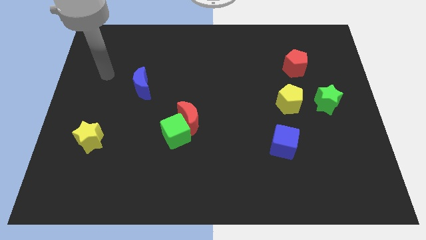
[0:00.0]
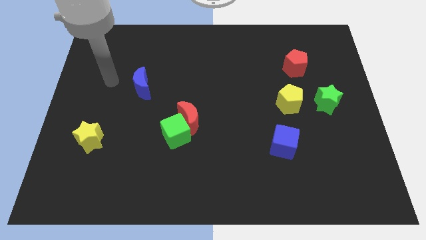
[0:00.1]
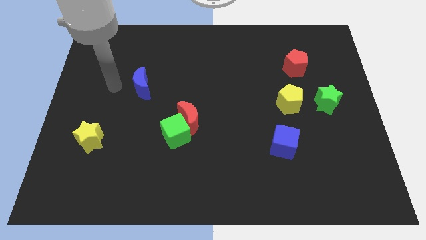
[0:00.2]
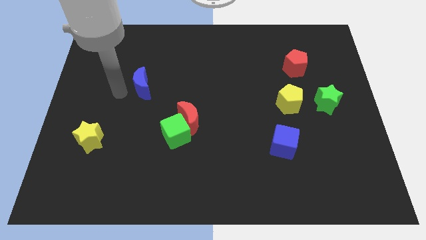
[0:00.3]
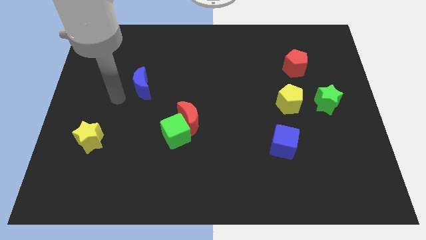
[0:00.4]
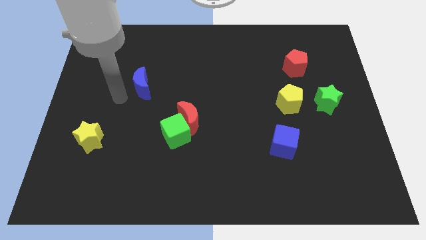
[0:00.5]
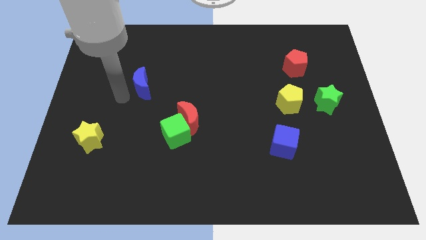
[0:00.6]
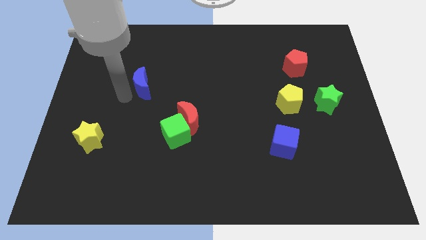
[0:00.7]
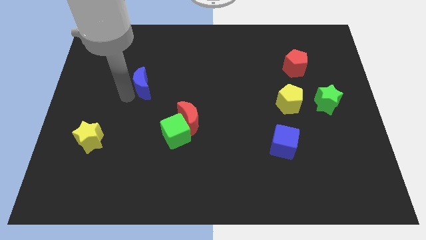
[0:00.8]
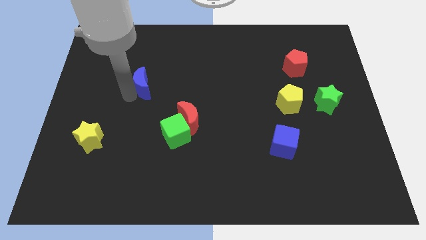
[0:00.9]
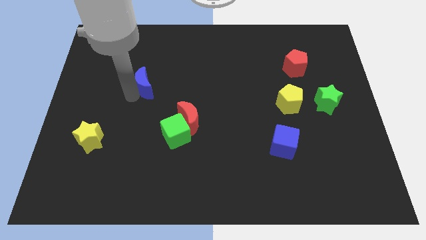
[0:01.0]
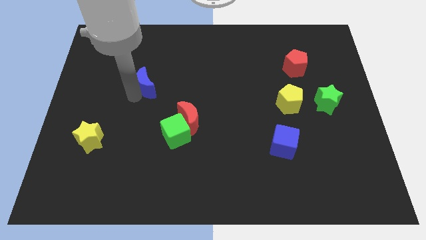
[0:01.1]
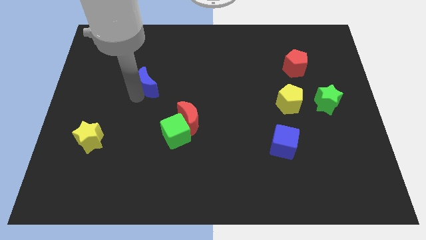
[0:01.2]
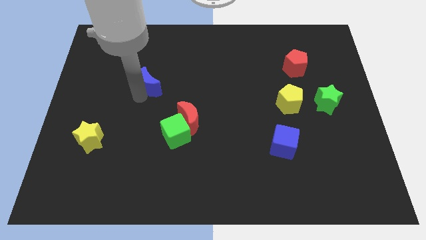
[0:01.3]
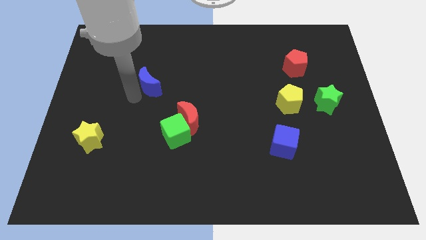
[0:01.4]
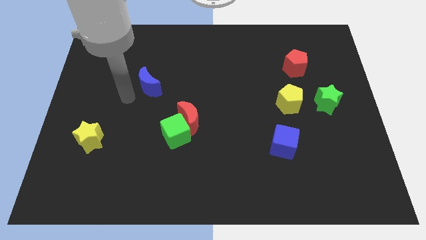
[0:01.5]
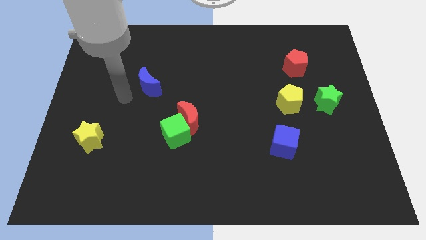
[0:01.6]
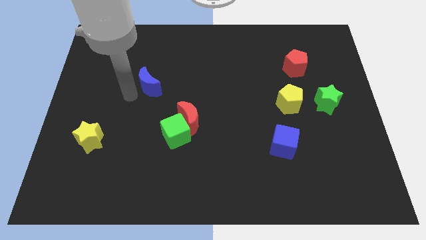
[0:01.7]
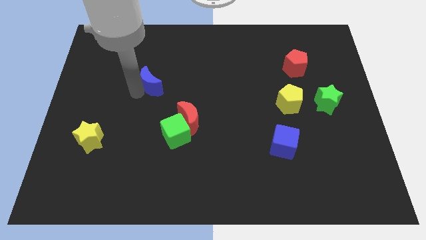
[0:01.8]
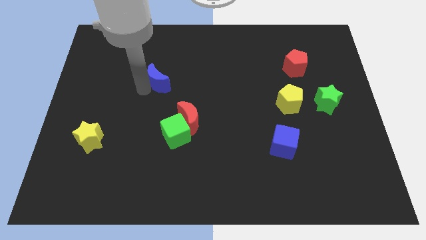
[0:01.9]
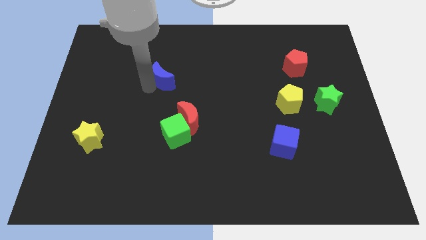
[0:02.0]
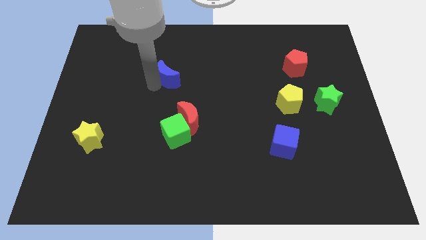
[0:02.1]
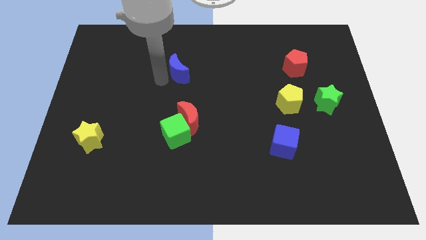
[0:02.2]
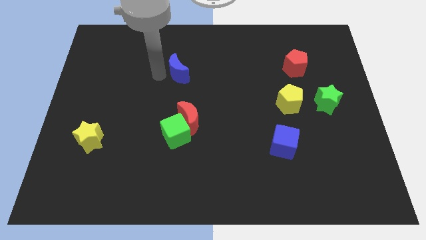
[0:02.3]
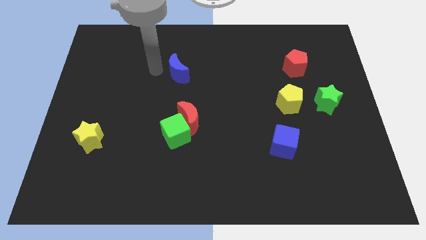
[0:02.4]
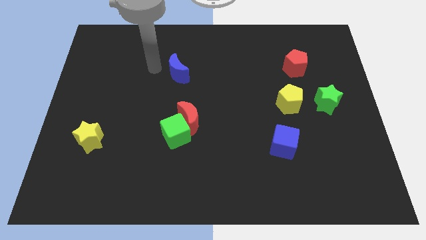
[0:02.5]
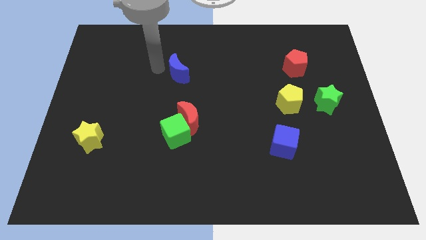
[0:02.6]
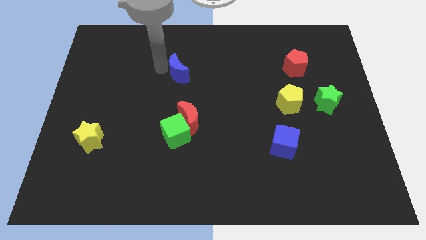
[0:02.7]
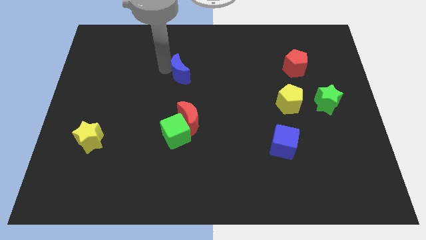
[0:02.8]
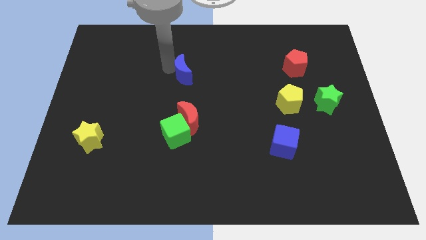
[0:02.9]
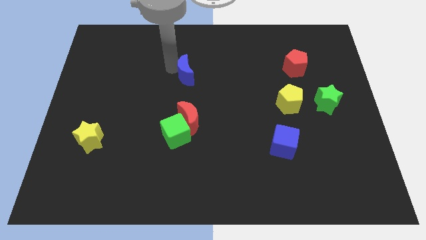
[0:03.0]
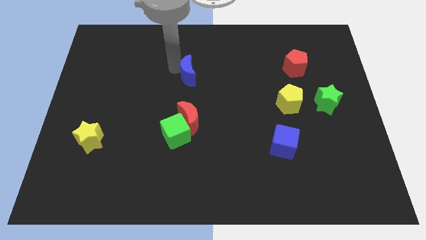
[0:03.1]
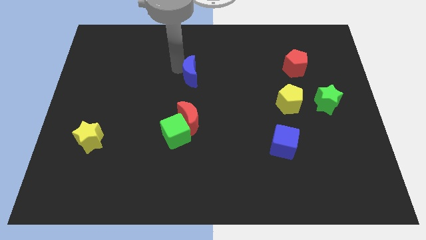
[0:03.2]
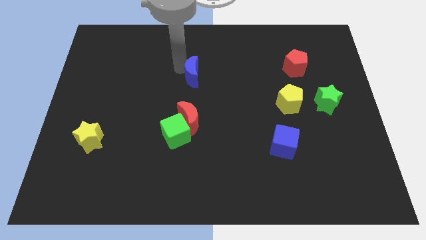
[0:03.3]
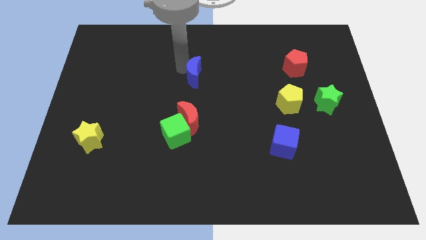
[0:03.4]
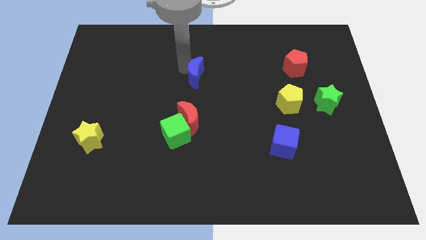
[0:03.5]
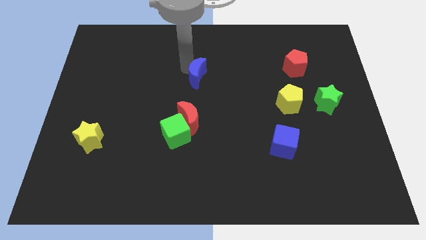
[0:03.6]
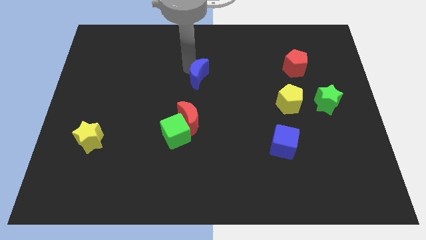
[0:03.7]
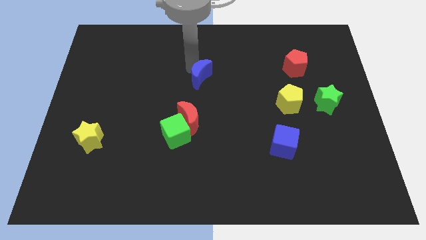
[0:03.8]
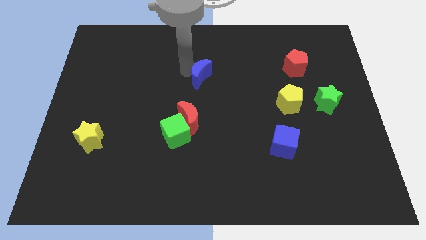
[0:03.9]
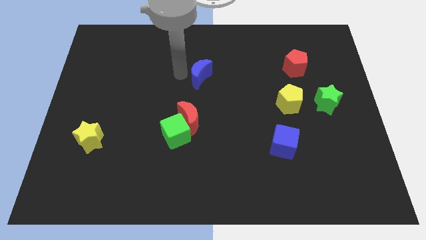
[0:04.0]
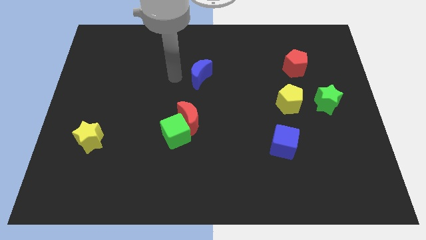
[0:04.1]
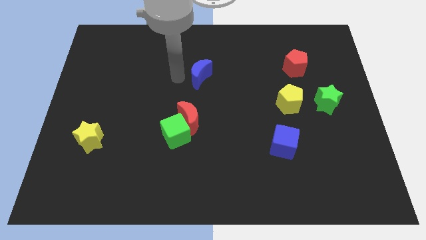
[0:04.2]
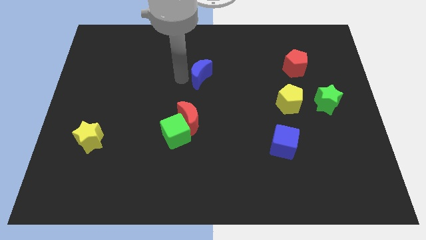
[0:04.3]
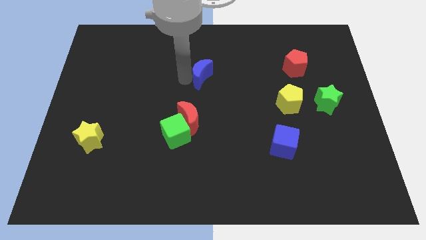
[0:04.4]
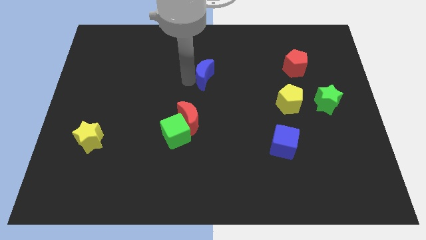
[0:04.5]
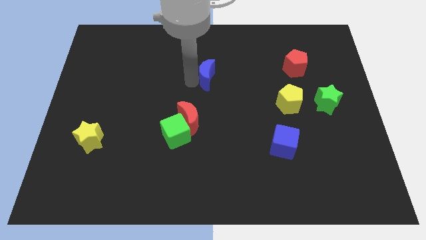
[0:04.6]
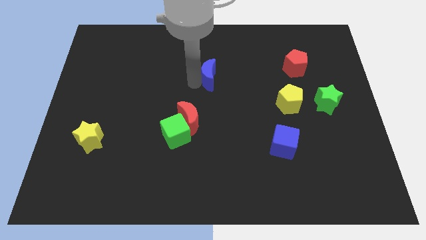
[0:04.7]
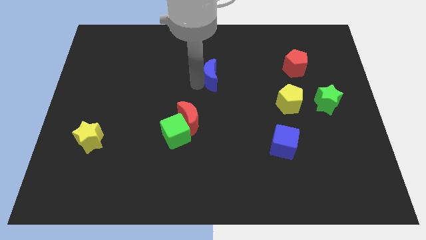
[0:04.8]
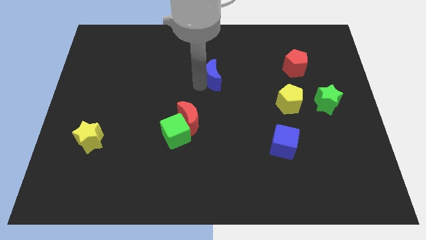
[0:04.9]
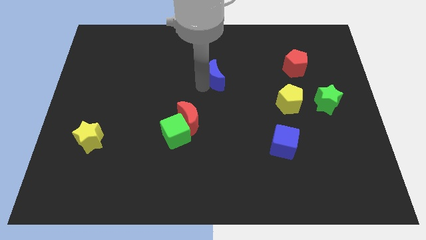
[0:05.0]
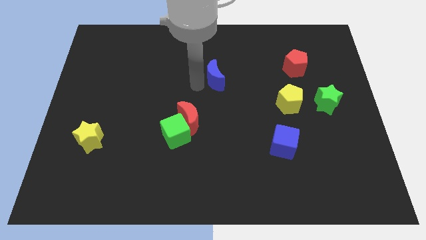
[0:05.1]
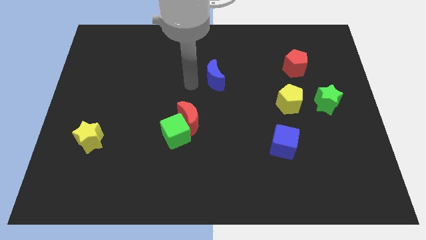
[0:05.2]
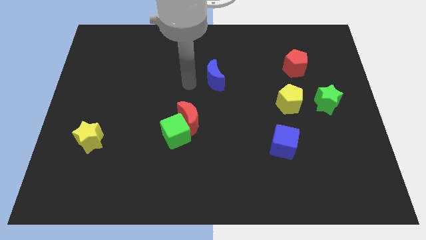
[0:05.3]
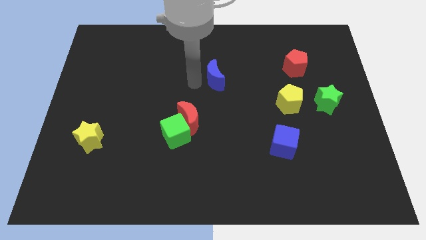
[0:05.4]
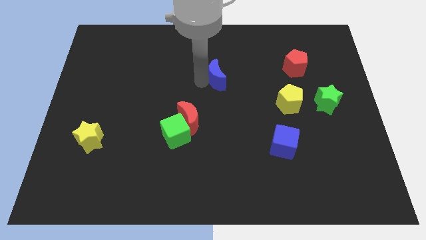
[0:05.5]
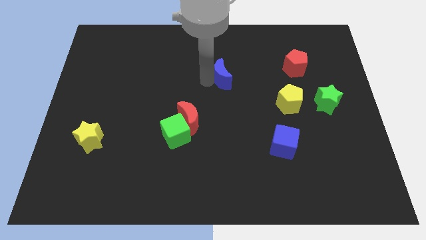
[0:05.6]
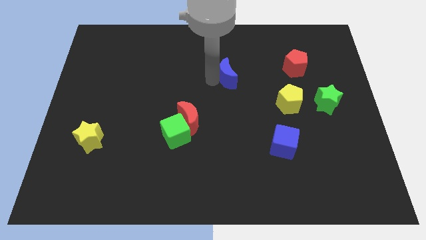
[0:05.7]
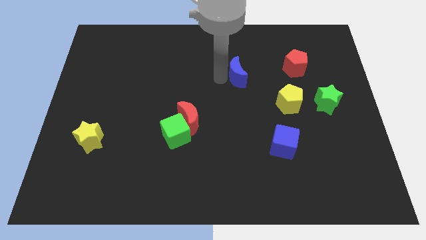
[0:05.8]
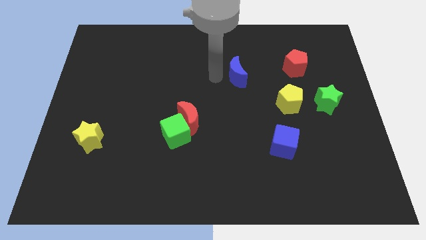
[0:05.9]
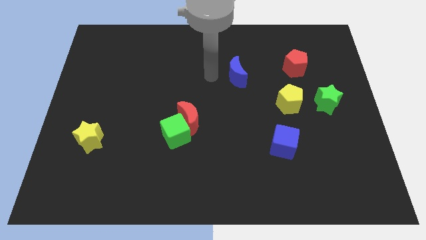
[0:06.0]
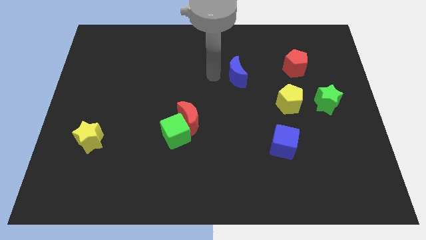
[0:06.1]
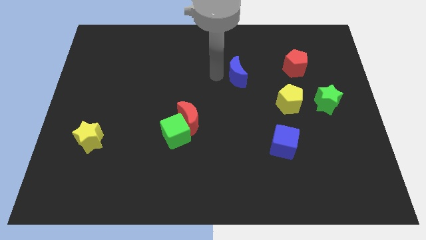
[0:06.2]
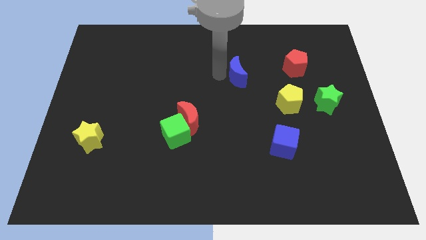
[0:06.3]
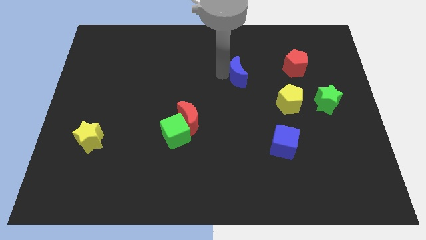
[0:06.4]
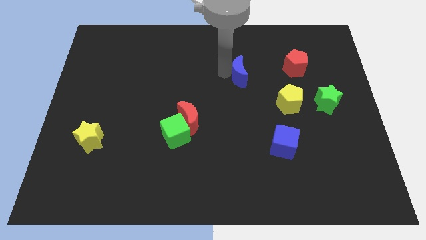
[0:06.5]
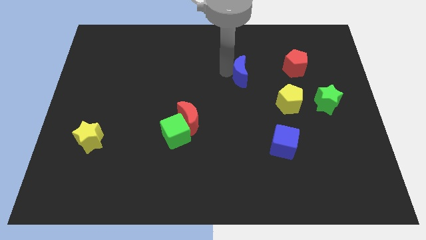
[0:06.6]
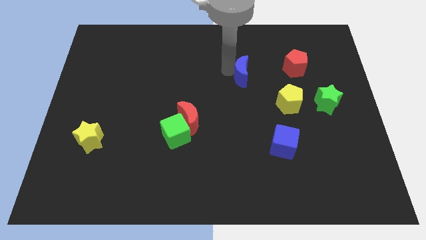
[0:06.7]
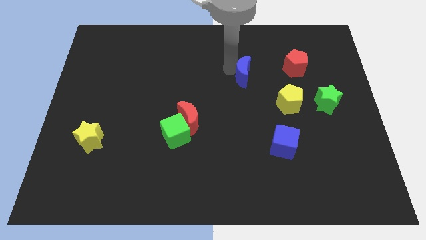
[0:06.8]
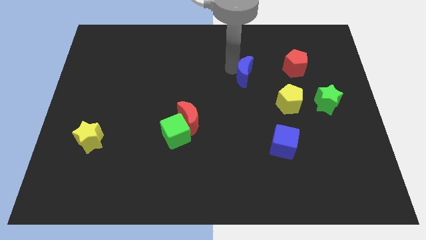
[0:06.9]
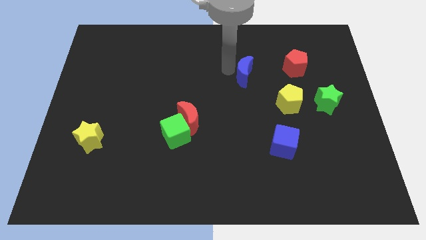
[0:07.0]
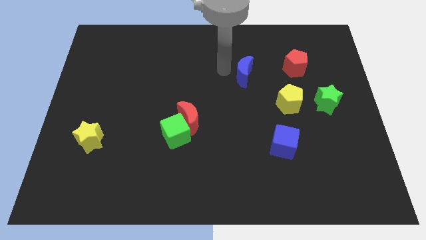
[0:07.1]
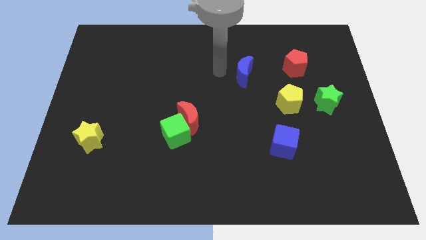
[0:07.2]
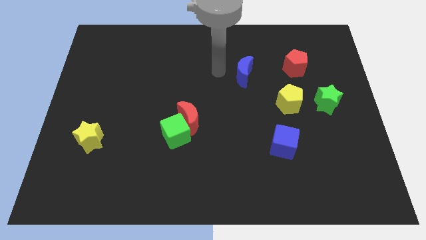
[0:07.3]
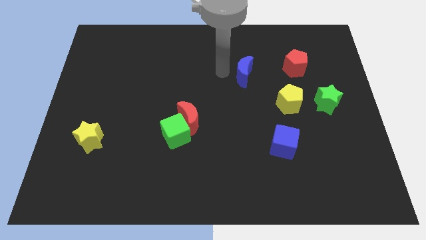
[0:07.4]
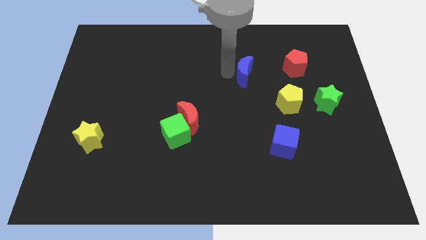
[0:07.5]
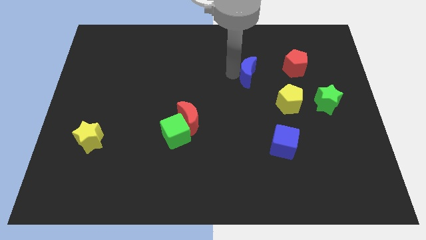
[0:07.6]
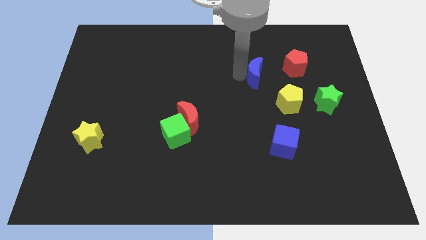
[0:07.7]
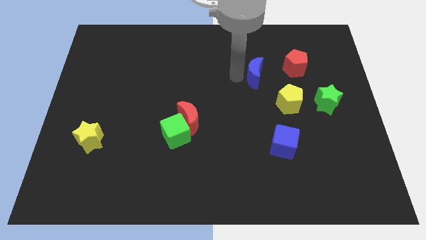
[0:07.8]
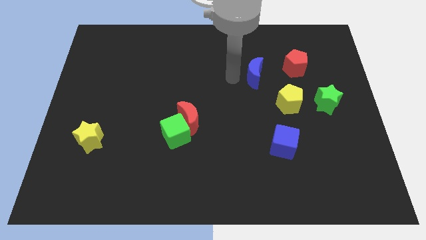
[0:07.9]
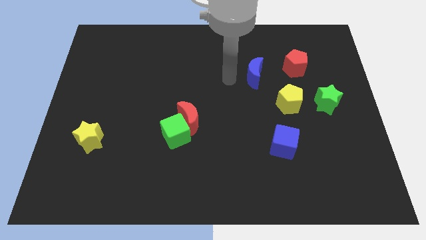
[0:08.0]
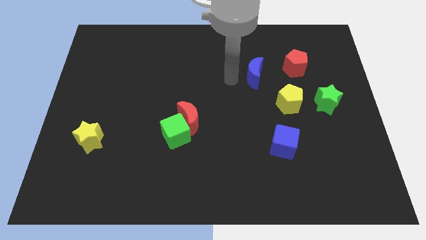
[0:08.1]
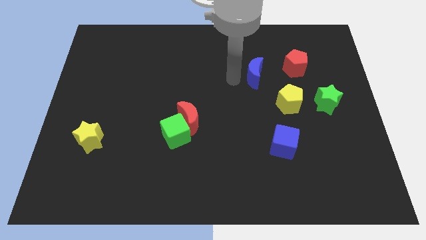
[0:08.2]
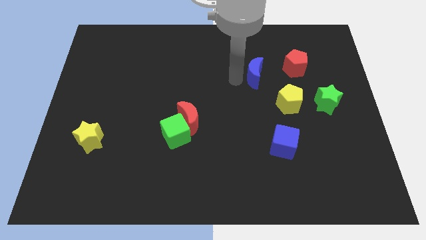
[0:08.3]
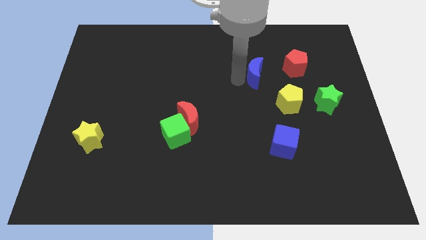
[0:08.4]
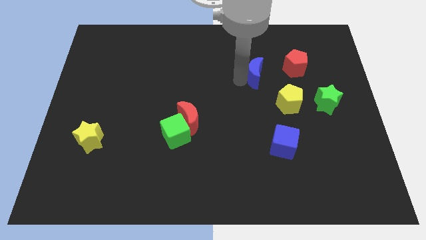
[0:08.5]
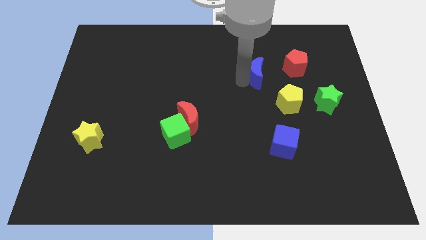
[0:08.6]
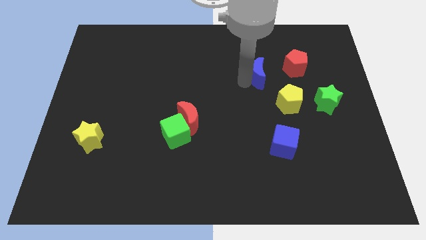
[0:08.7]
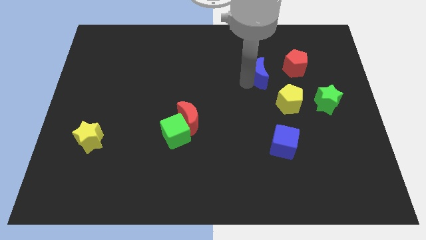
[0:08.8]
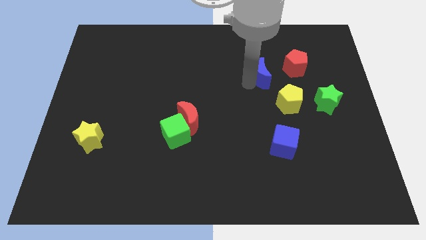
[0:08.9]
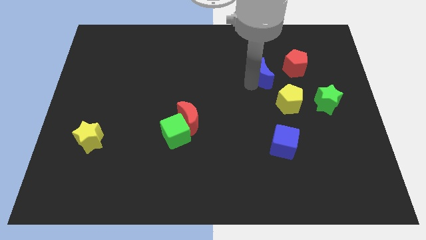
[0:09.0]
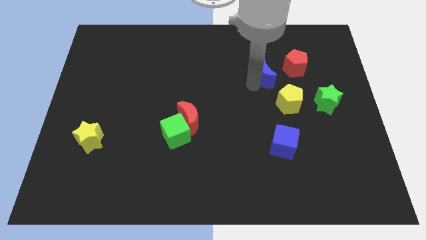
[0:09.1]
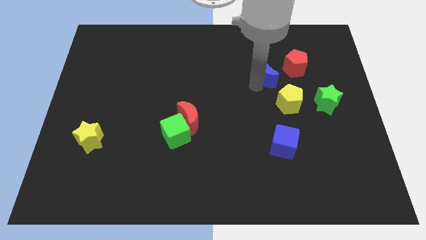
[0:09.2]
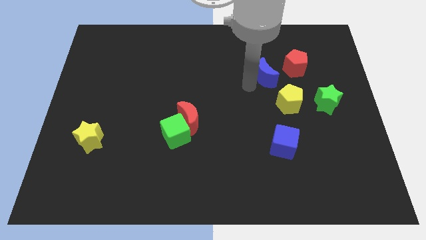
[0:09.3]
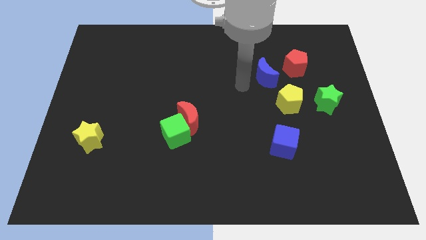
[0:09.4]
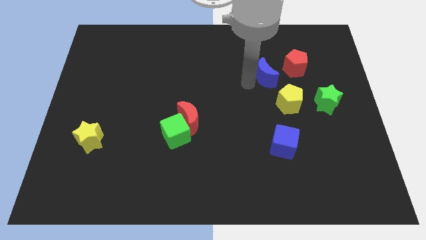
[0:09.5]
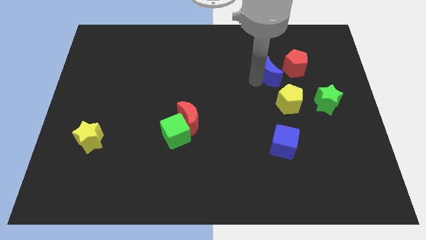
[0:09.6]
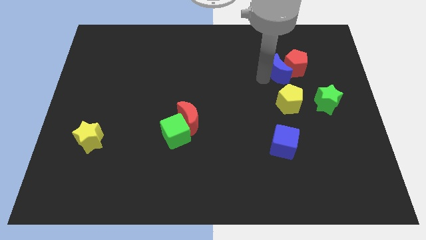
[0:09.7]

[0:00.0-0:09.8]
push the blue moon close to the red pentagon
